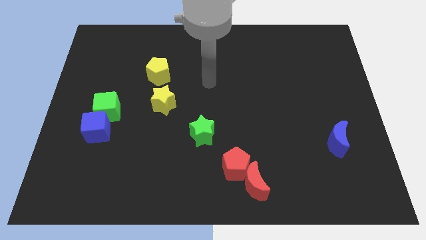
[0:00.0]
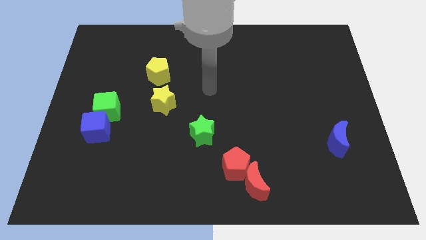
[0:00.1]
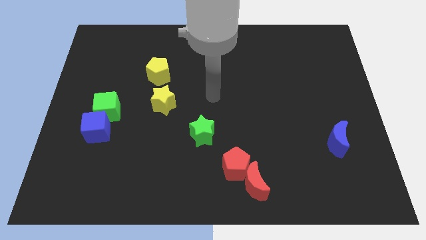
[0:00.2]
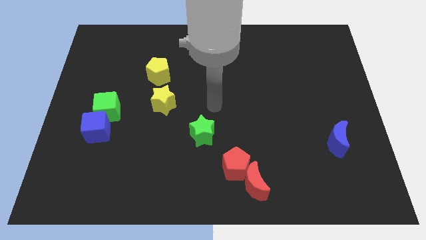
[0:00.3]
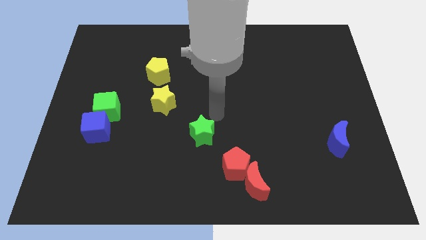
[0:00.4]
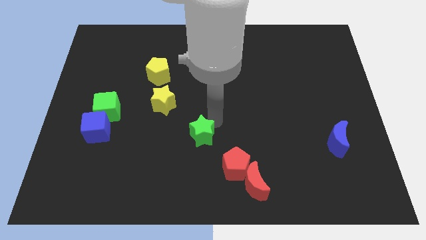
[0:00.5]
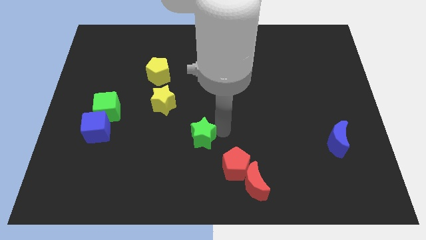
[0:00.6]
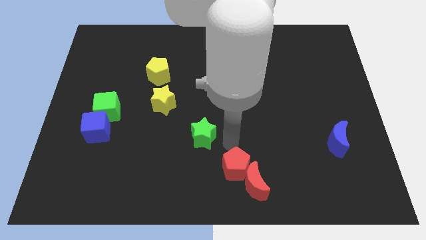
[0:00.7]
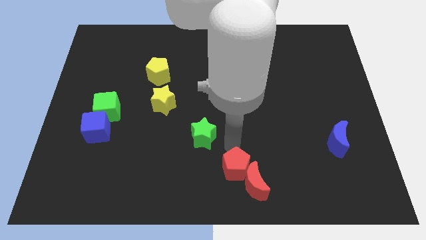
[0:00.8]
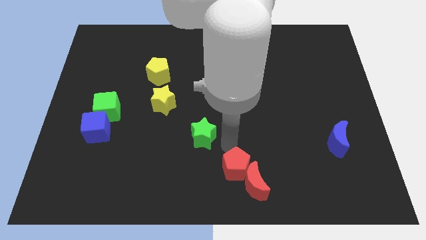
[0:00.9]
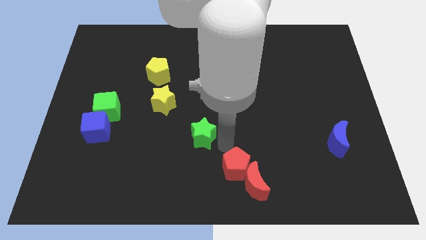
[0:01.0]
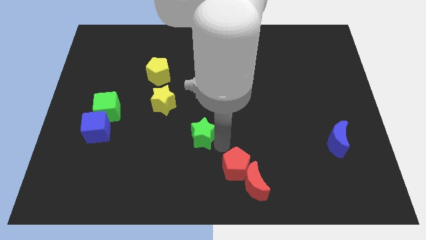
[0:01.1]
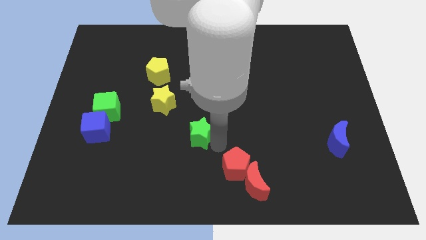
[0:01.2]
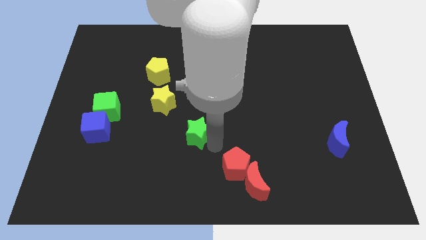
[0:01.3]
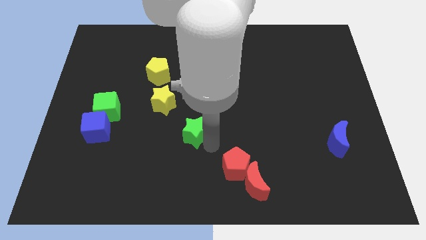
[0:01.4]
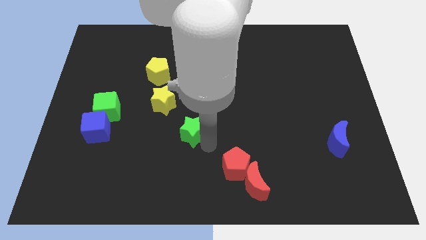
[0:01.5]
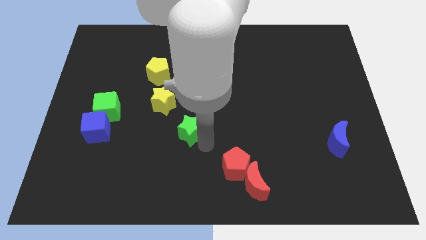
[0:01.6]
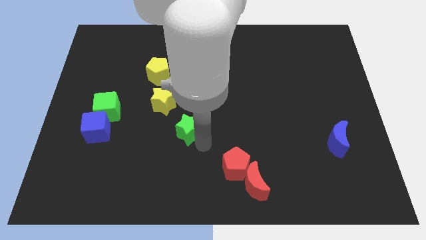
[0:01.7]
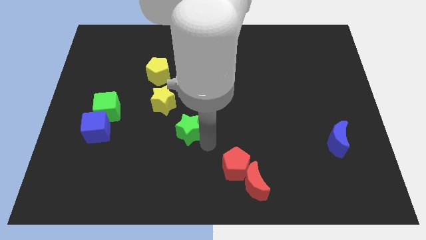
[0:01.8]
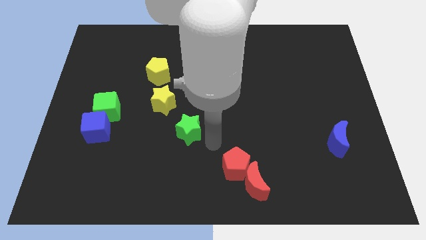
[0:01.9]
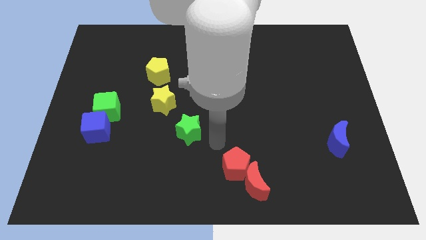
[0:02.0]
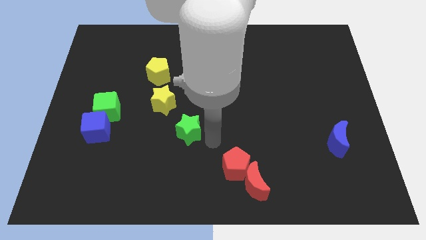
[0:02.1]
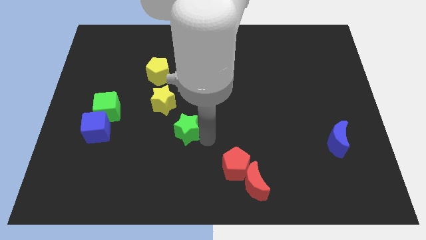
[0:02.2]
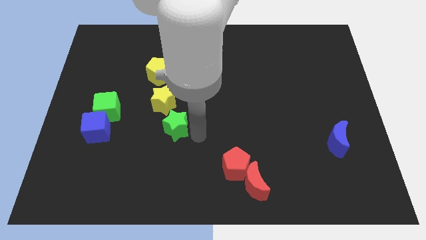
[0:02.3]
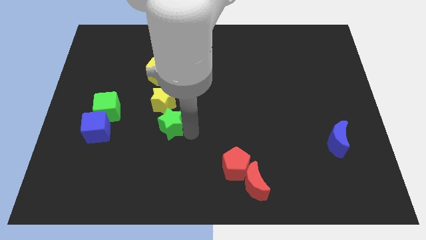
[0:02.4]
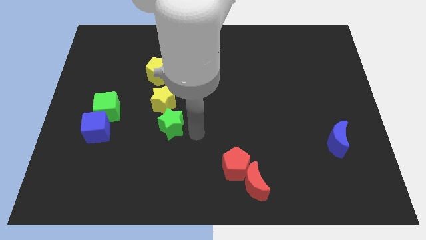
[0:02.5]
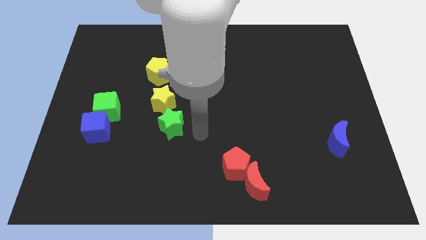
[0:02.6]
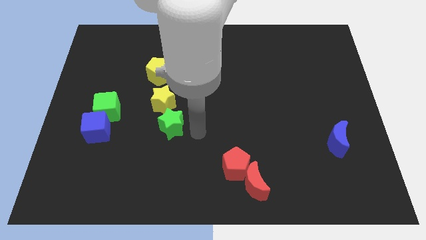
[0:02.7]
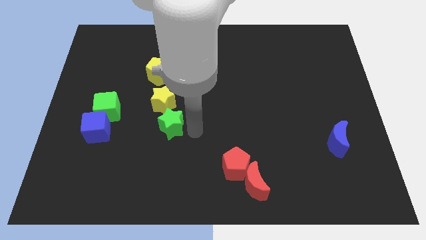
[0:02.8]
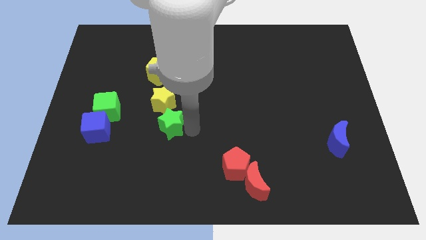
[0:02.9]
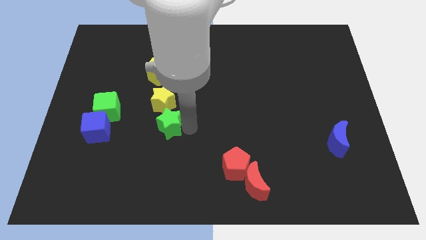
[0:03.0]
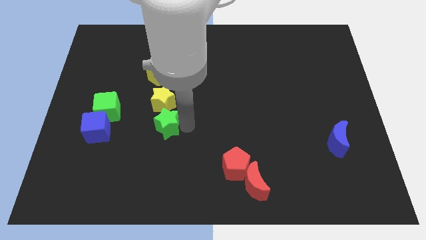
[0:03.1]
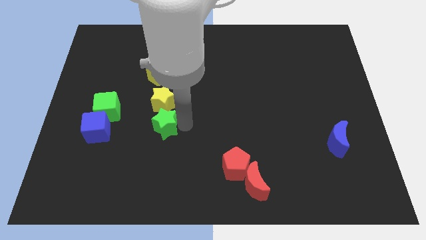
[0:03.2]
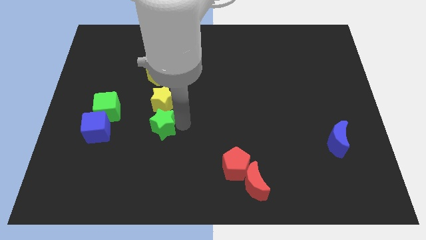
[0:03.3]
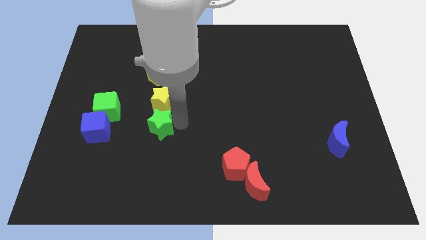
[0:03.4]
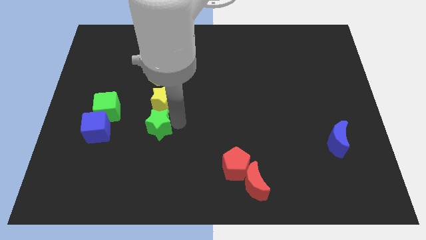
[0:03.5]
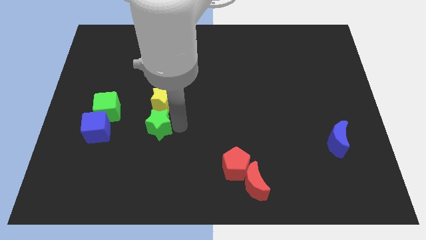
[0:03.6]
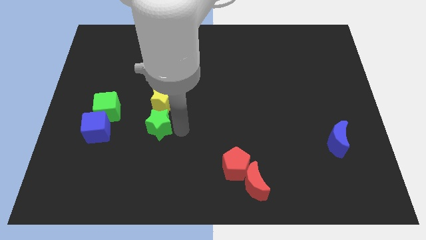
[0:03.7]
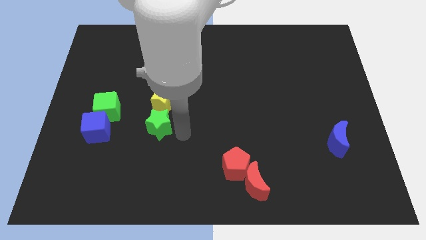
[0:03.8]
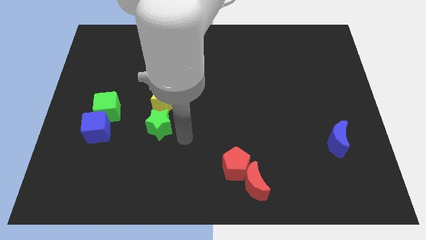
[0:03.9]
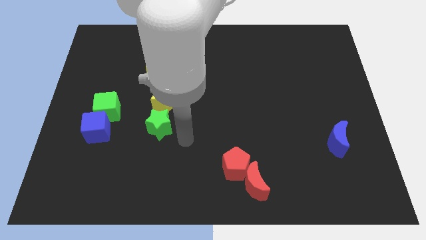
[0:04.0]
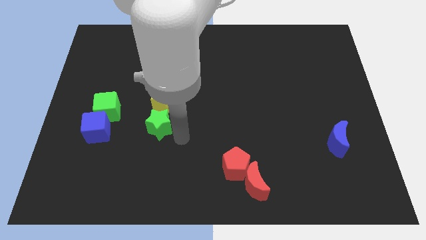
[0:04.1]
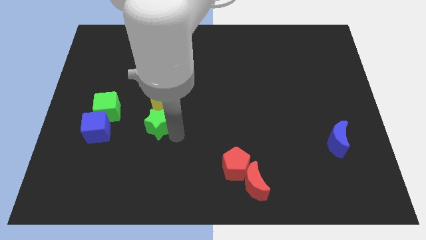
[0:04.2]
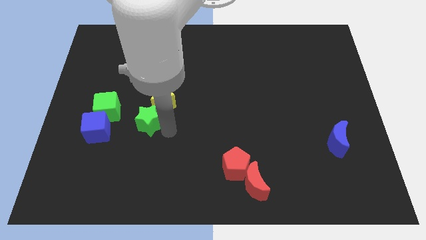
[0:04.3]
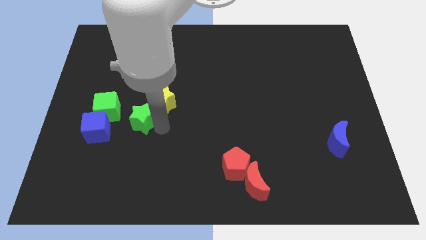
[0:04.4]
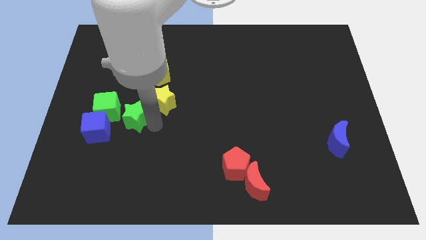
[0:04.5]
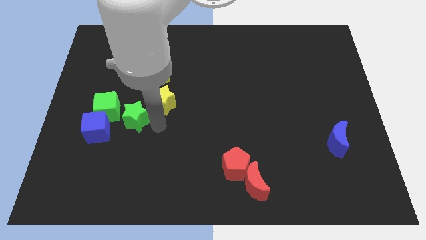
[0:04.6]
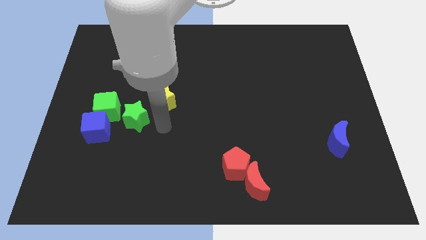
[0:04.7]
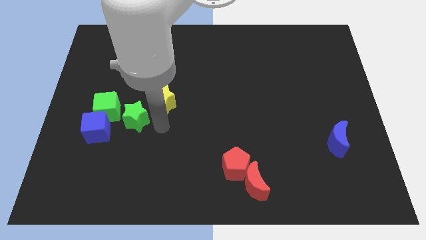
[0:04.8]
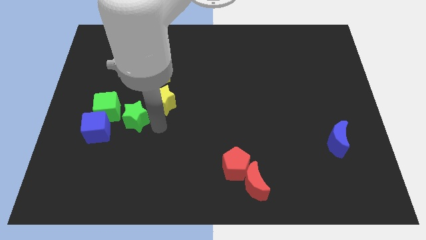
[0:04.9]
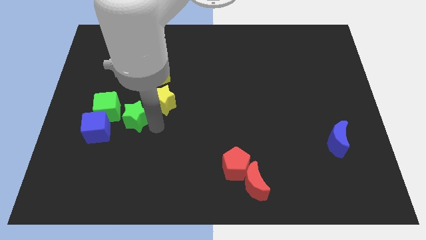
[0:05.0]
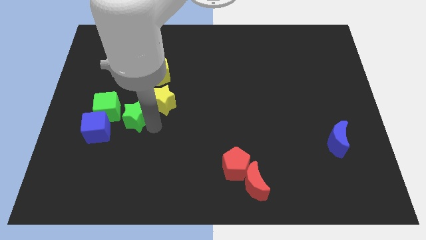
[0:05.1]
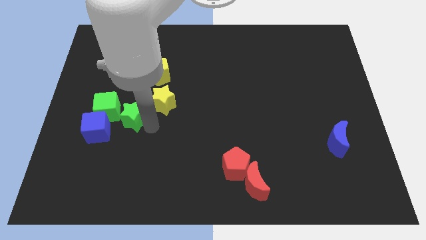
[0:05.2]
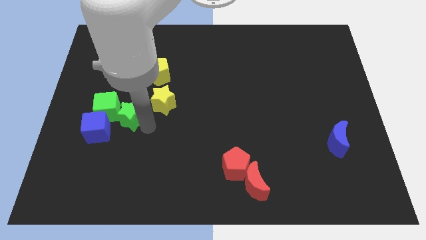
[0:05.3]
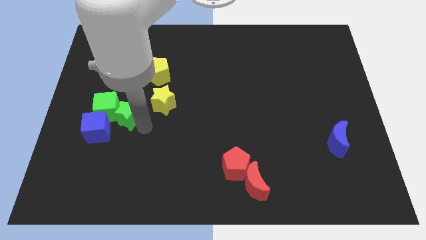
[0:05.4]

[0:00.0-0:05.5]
move the green star close to the green cube
